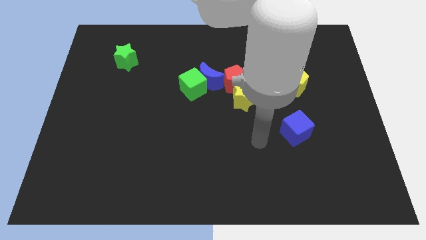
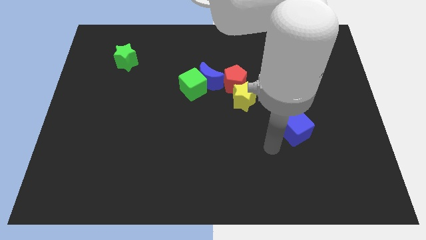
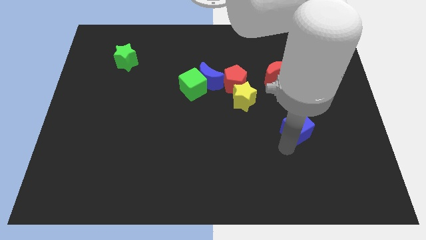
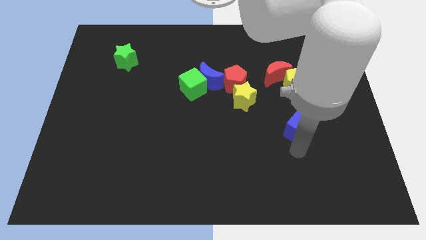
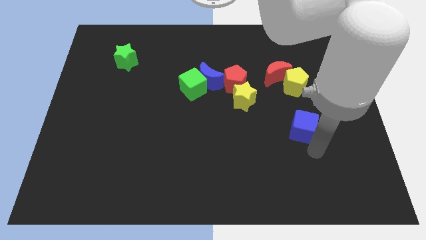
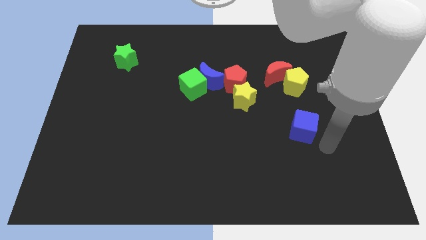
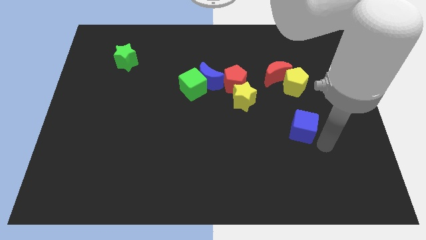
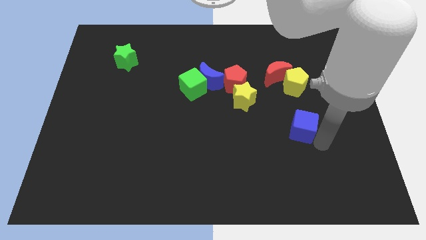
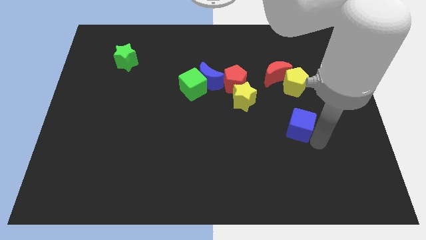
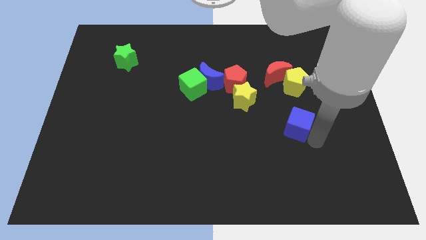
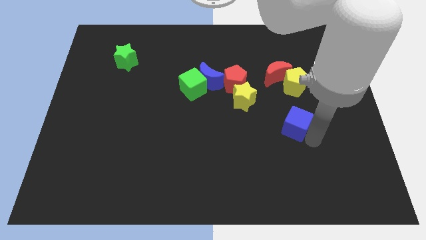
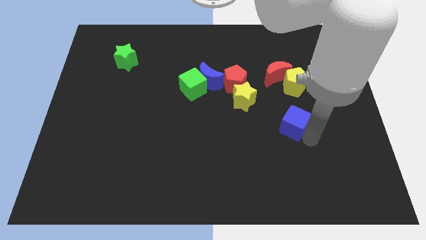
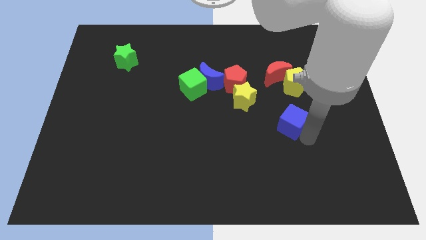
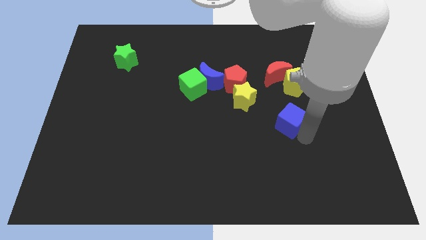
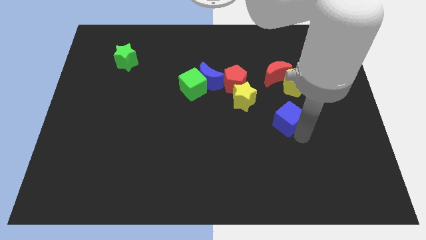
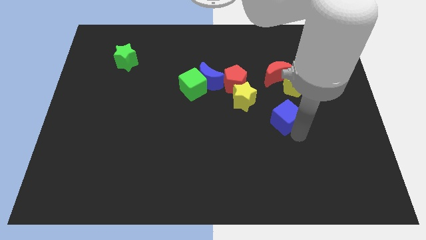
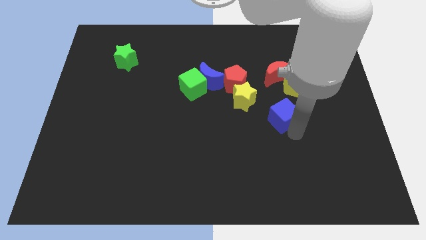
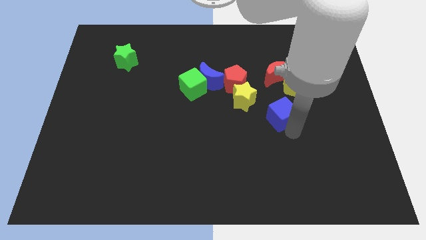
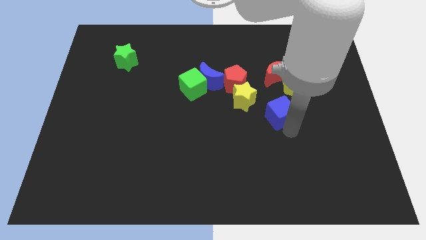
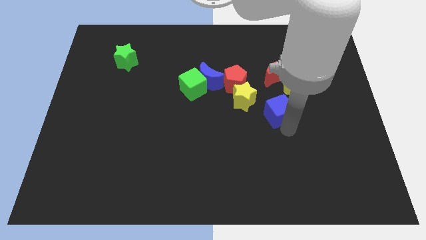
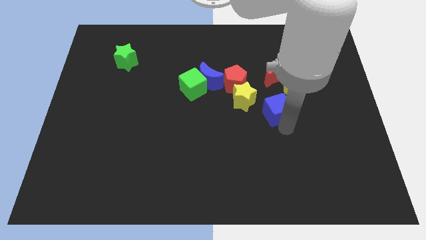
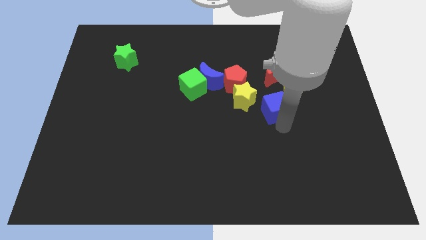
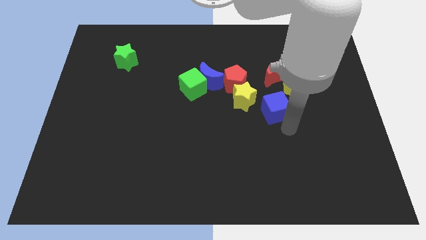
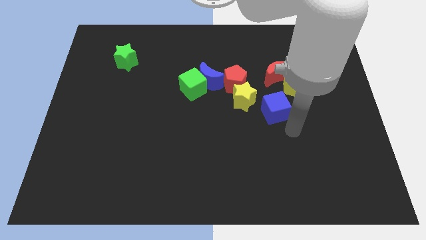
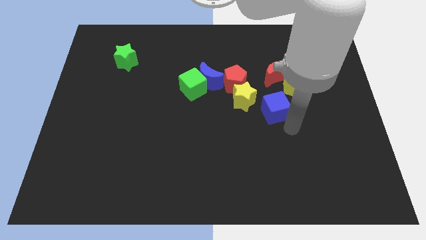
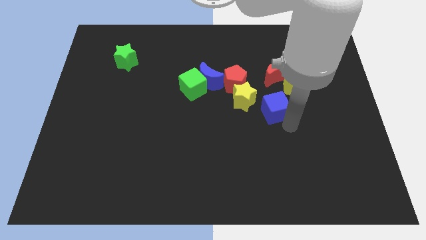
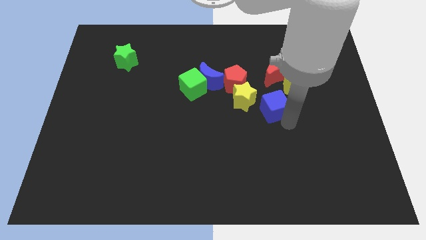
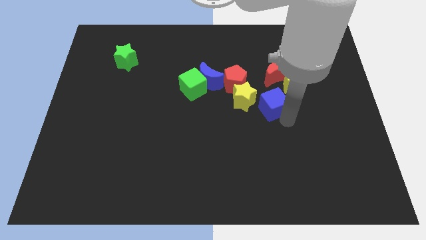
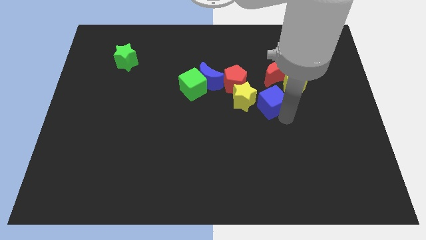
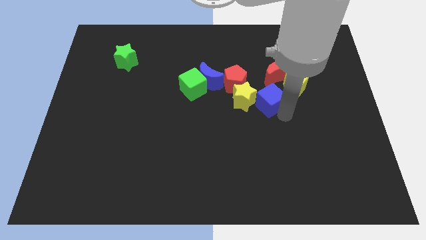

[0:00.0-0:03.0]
put the blue cube to the bottom left side of the red moon

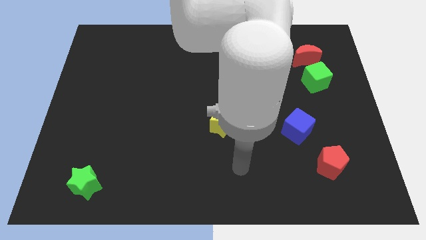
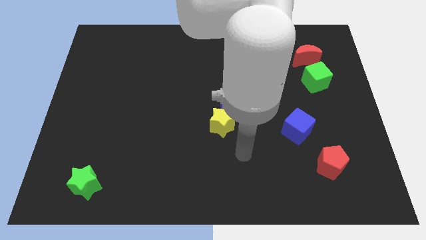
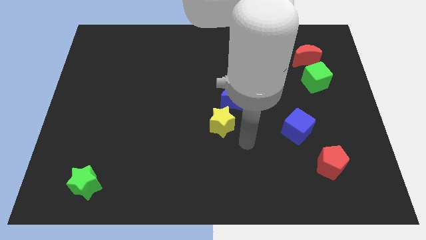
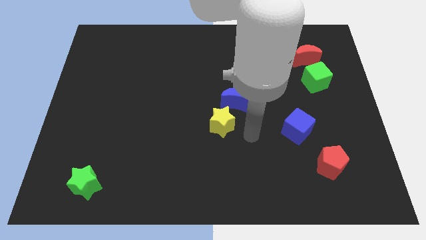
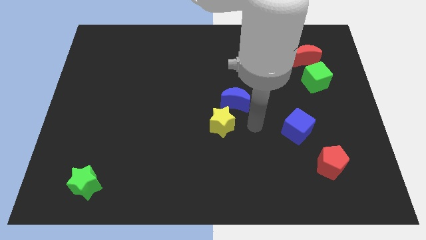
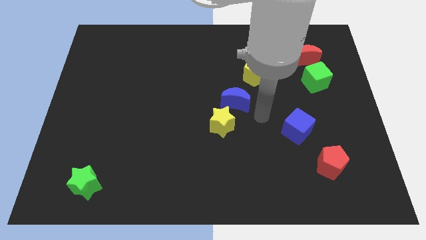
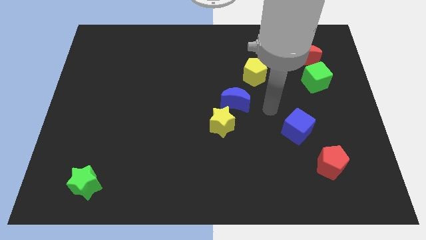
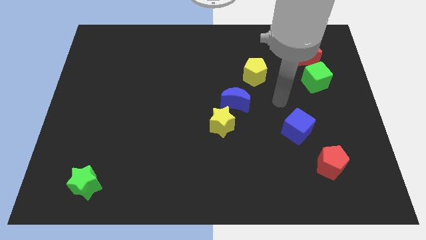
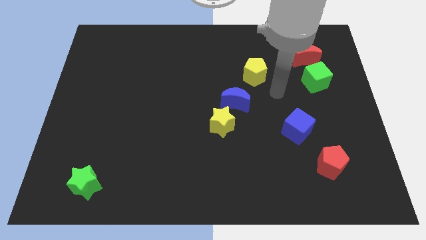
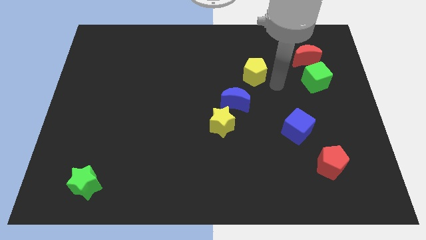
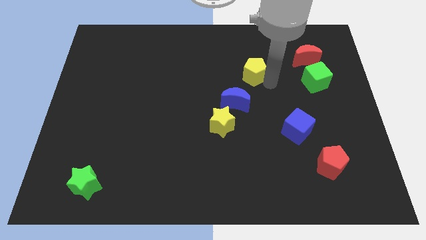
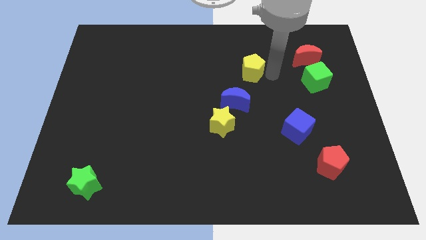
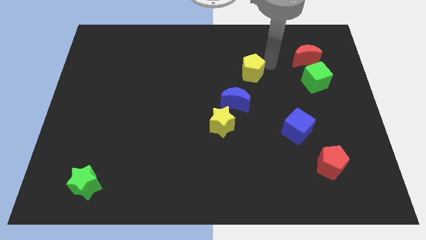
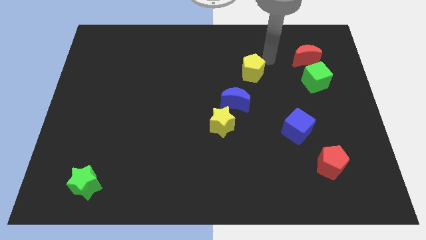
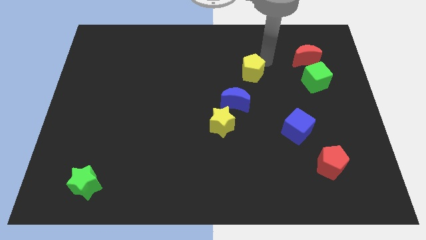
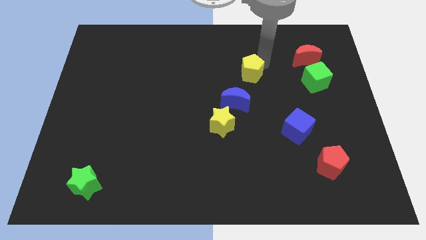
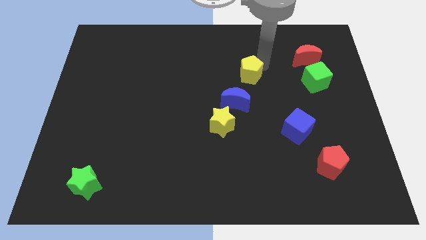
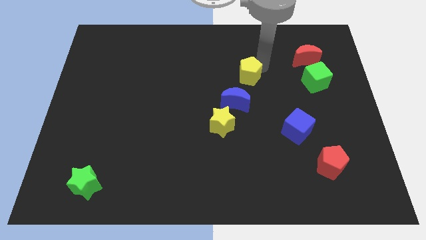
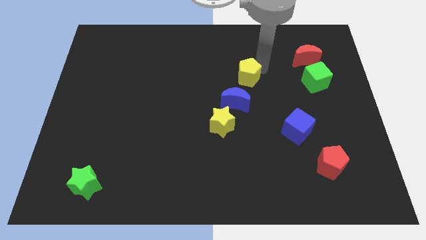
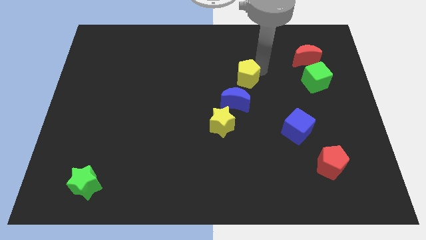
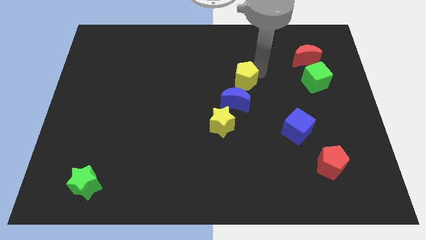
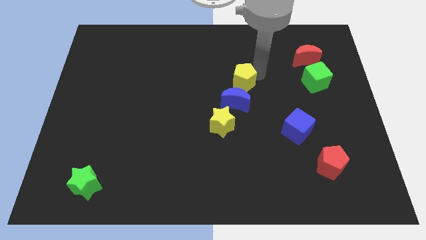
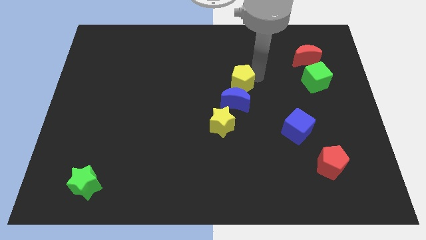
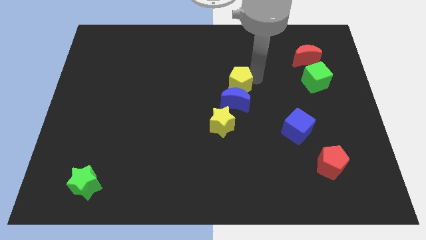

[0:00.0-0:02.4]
move the yellow pentagon above the yellow star

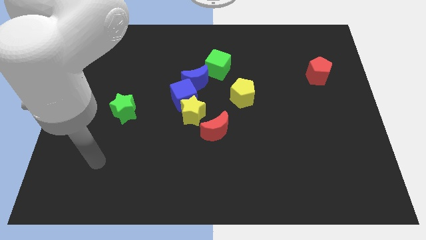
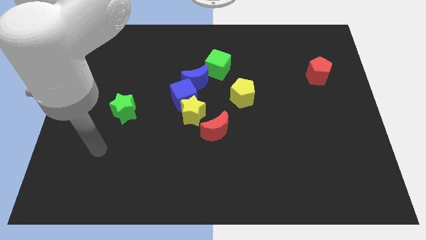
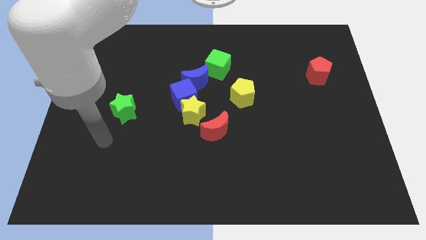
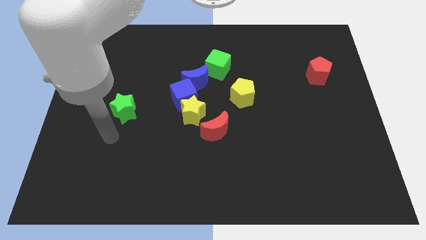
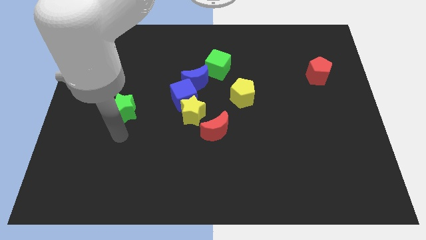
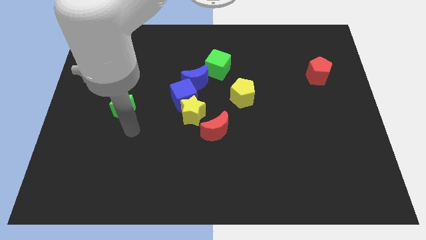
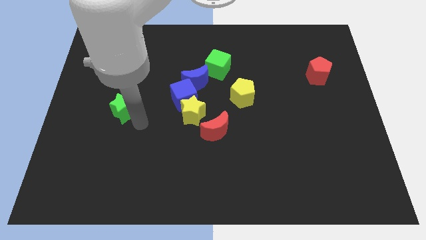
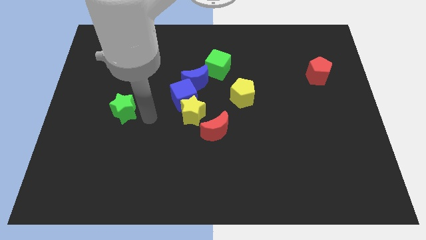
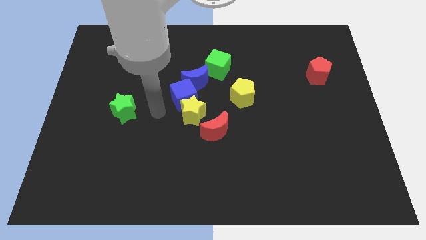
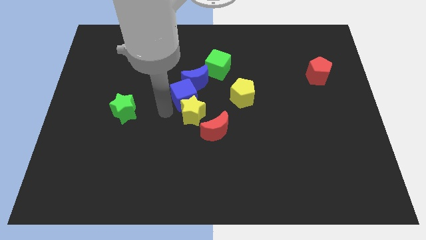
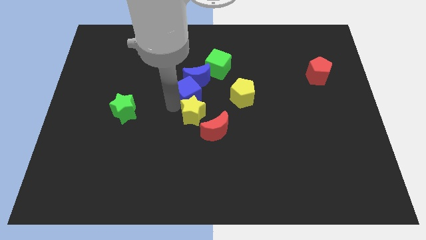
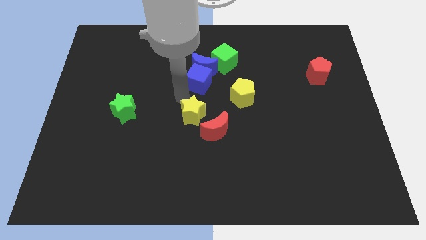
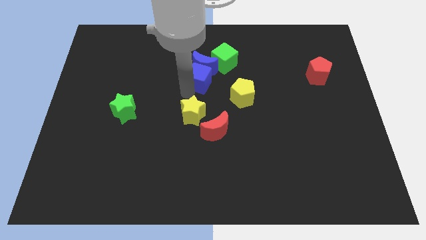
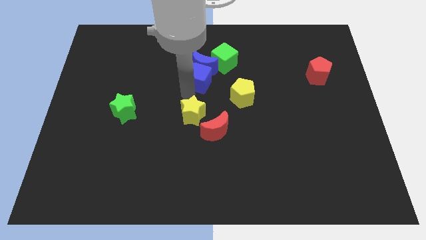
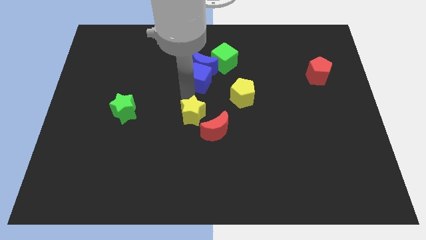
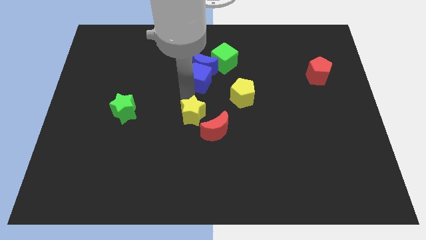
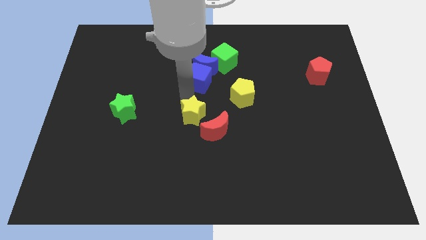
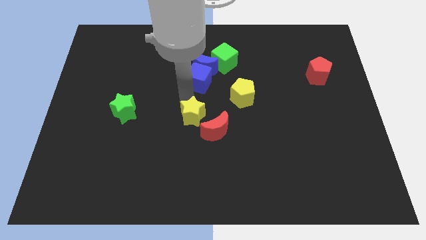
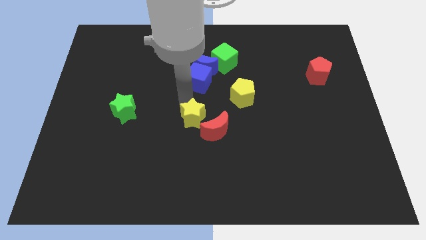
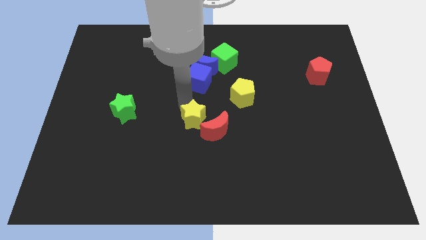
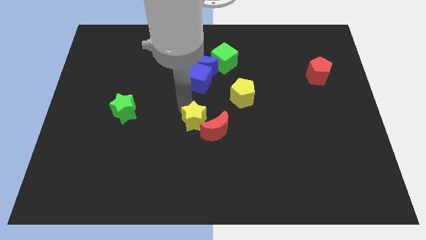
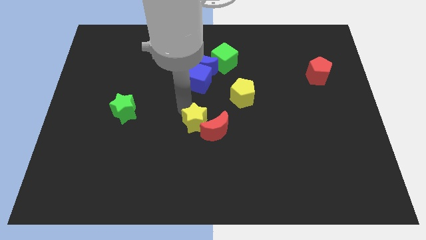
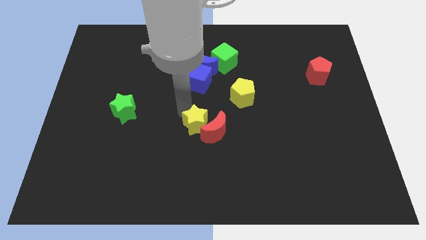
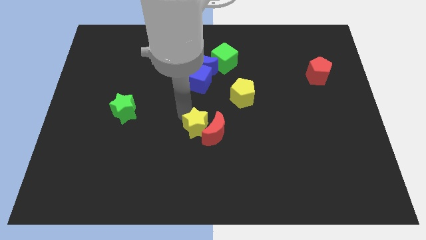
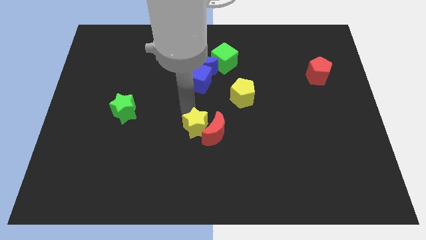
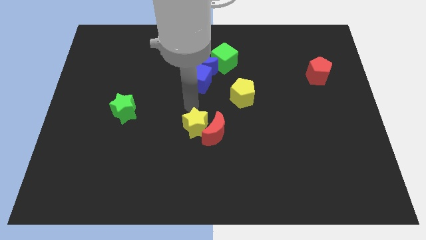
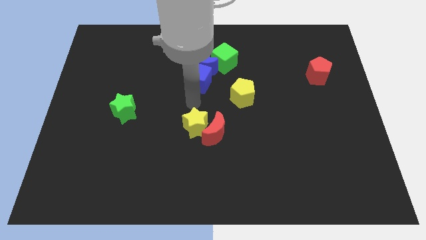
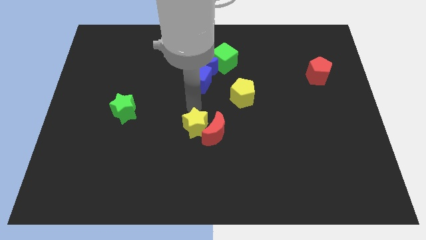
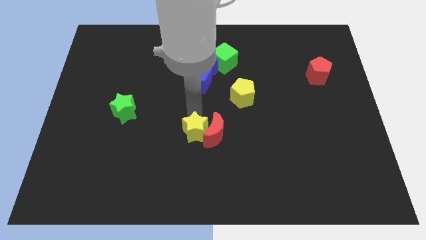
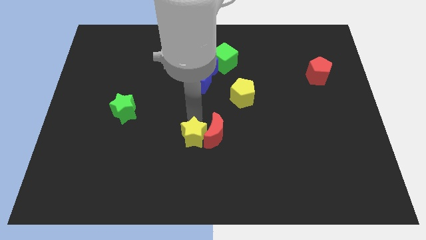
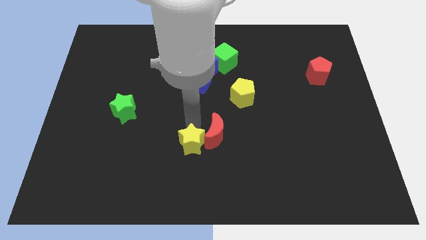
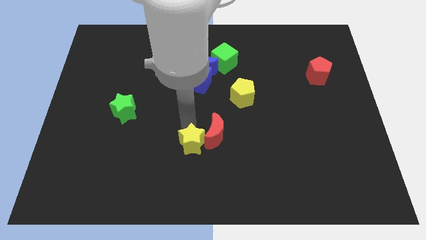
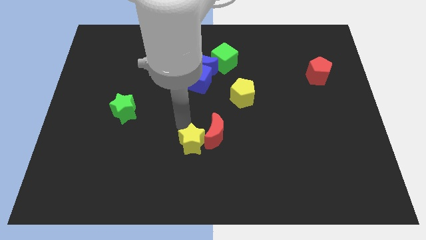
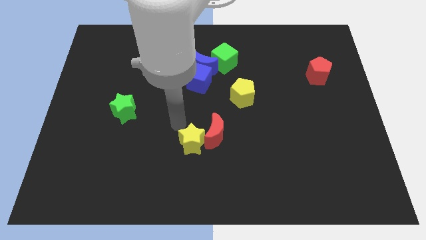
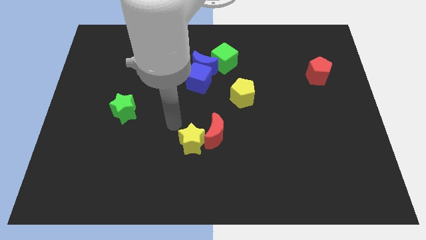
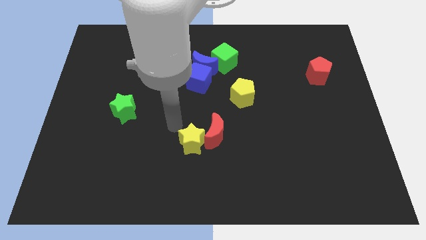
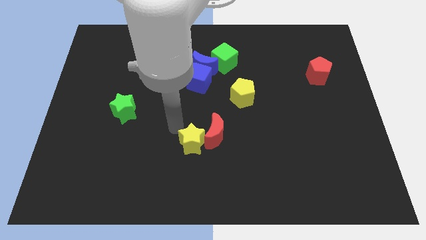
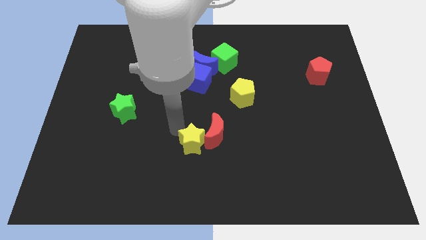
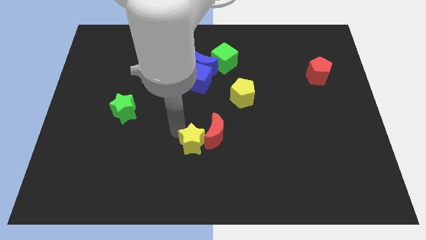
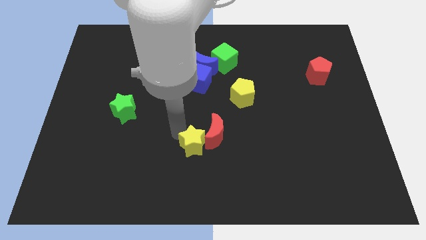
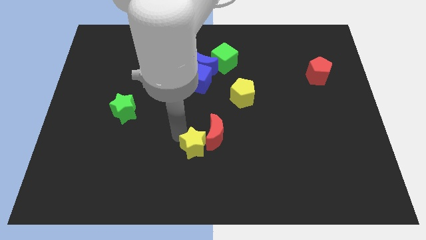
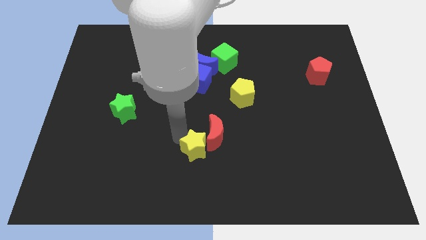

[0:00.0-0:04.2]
slide the yellow star to the bottom side of the red moon
